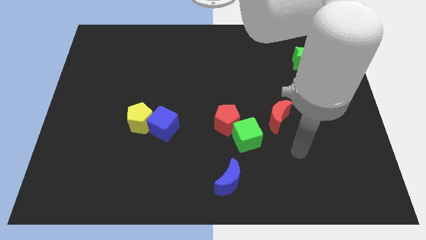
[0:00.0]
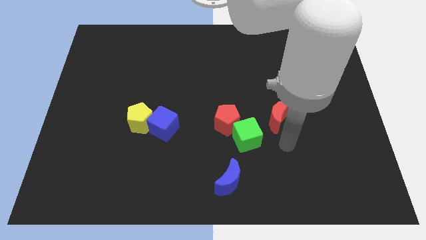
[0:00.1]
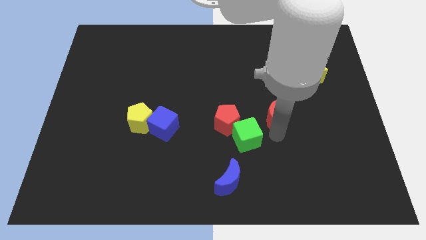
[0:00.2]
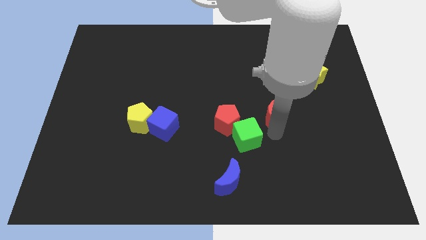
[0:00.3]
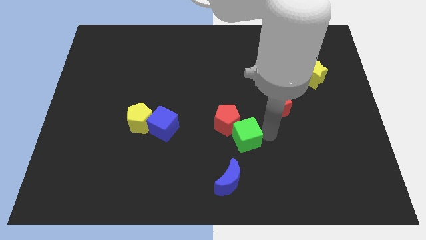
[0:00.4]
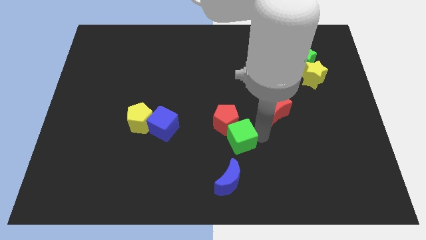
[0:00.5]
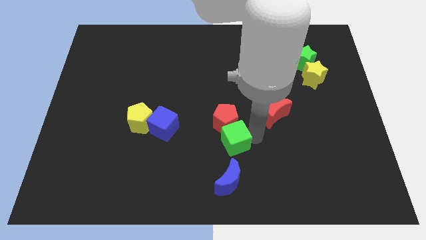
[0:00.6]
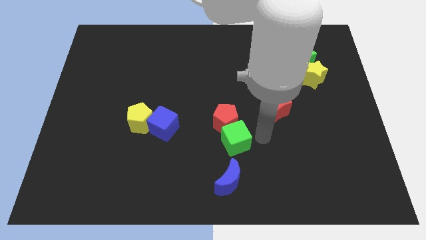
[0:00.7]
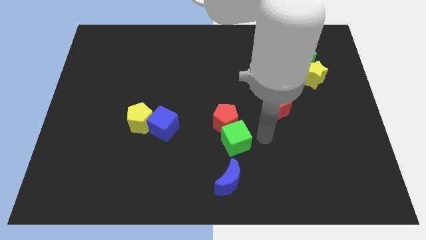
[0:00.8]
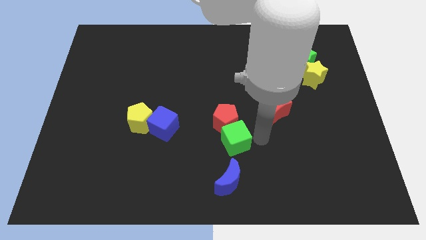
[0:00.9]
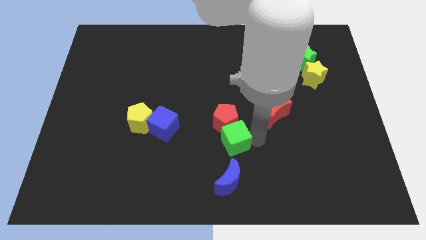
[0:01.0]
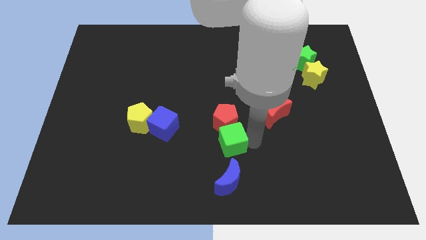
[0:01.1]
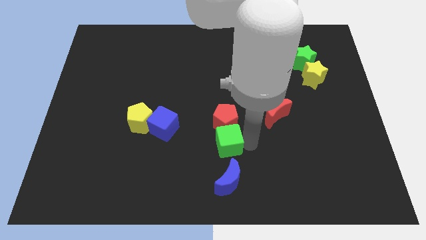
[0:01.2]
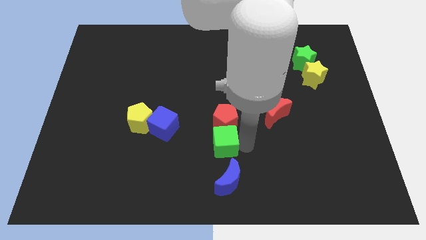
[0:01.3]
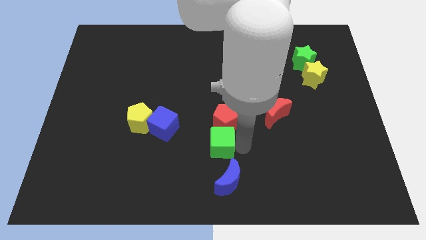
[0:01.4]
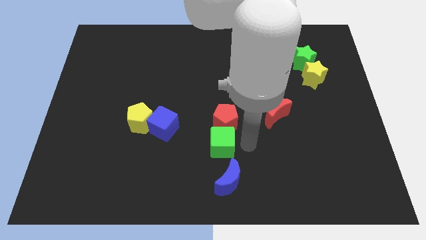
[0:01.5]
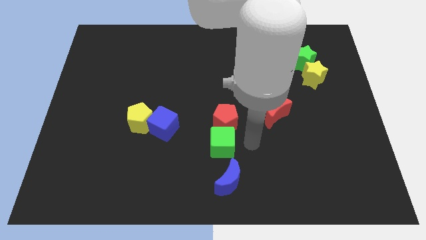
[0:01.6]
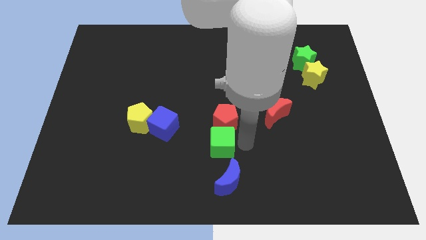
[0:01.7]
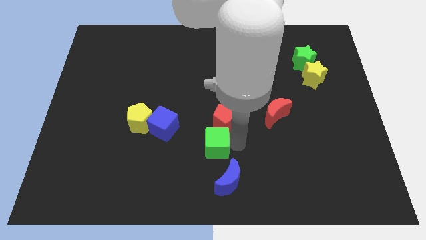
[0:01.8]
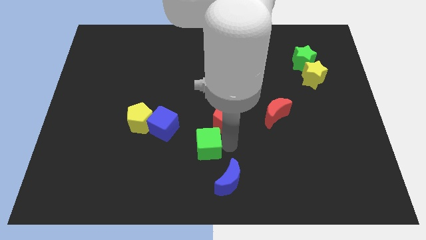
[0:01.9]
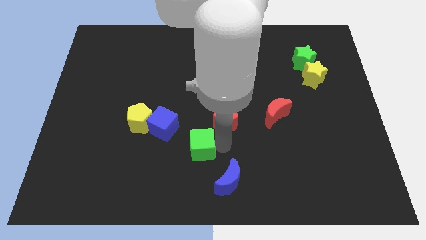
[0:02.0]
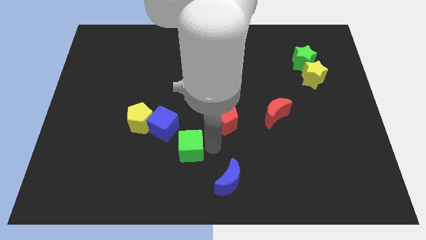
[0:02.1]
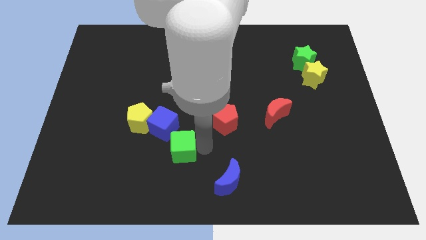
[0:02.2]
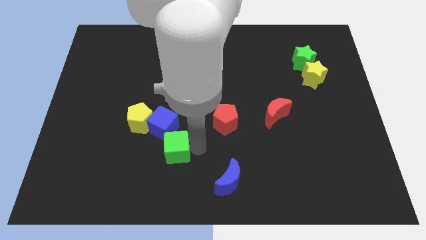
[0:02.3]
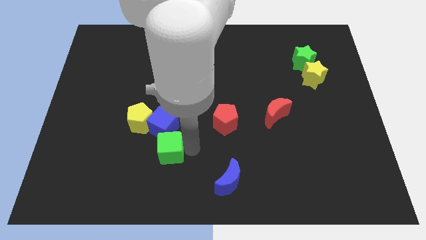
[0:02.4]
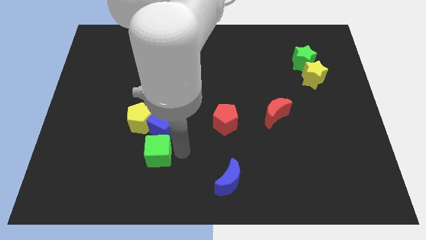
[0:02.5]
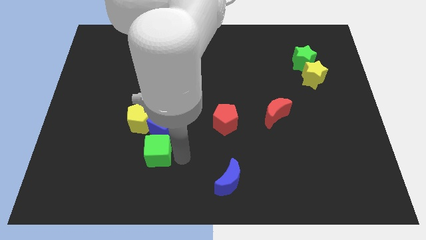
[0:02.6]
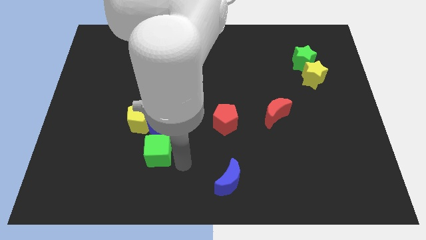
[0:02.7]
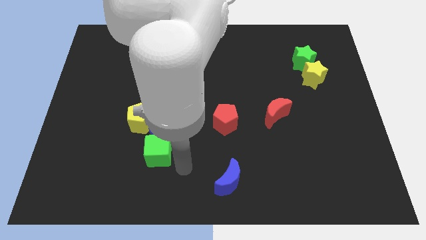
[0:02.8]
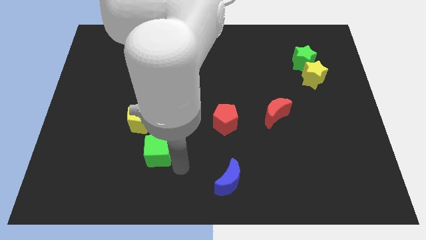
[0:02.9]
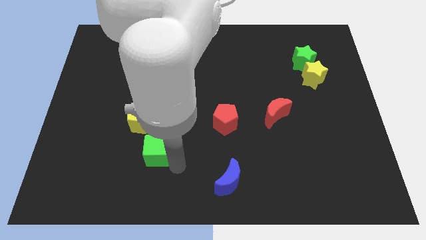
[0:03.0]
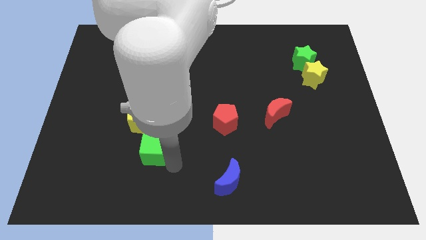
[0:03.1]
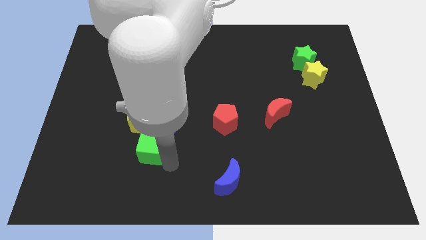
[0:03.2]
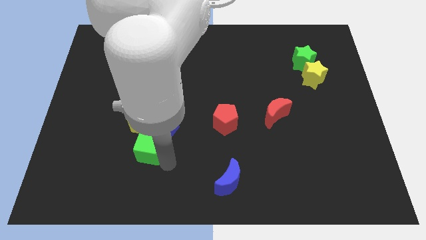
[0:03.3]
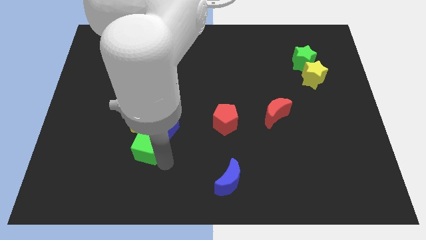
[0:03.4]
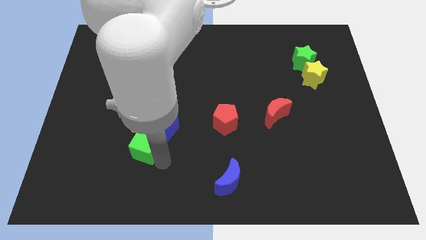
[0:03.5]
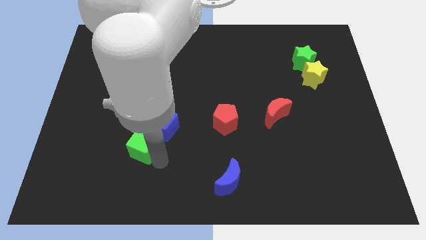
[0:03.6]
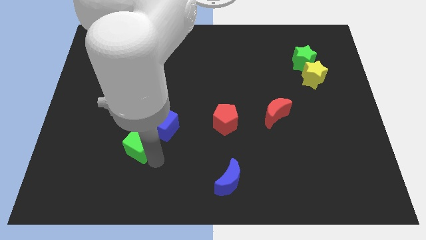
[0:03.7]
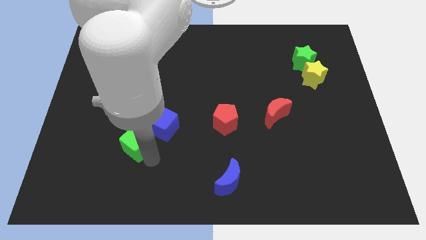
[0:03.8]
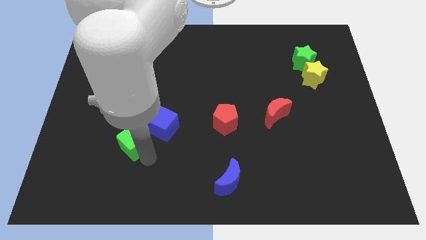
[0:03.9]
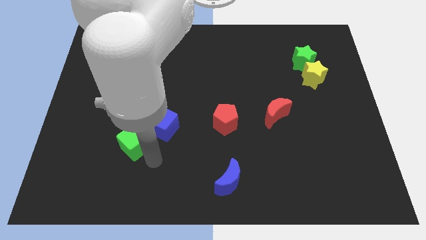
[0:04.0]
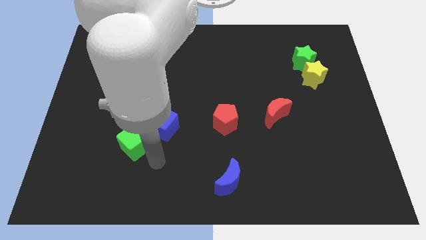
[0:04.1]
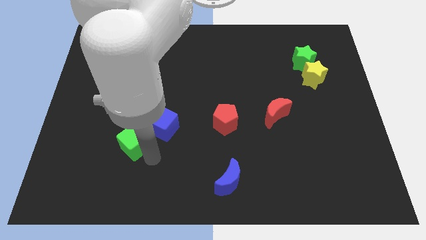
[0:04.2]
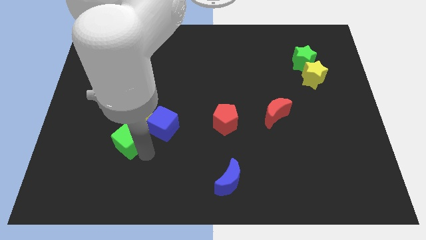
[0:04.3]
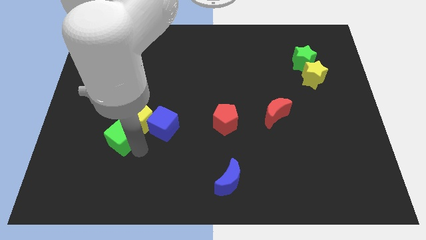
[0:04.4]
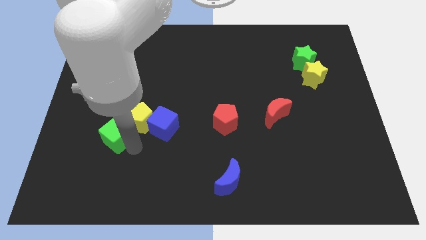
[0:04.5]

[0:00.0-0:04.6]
put the green cube left of the yellow pentagon

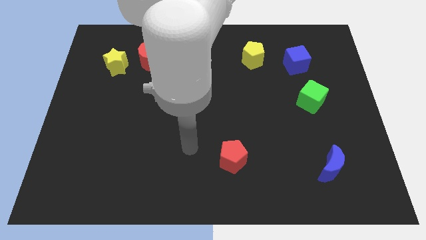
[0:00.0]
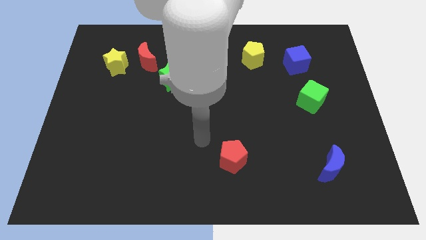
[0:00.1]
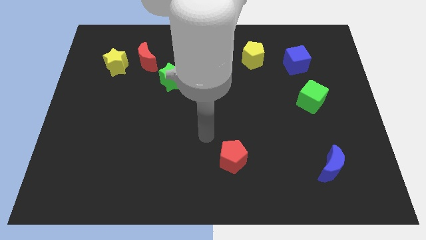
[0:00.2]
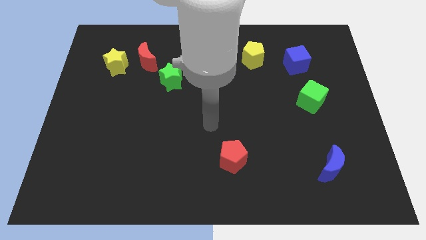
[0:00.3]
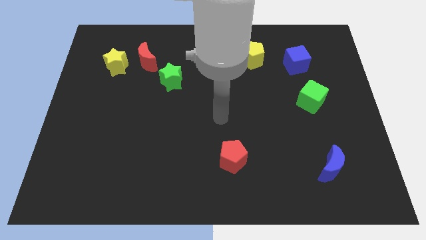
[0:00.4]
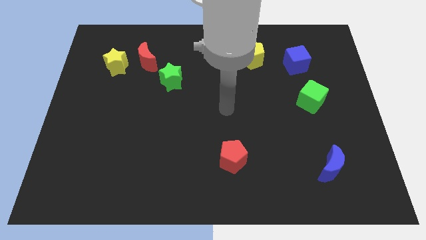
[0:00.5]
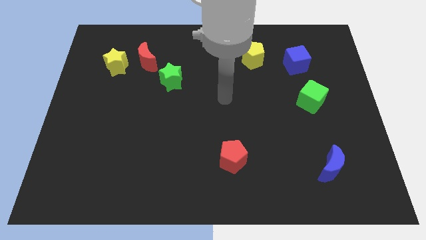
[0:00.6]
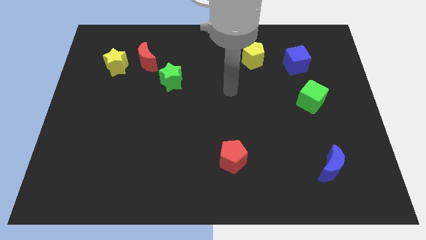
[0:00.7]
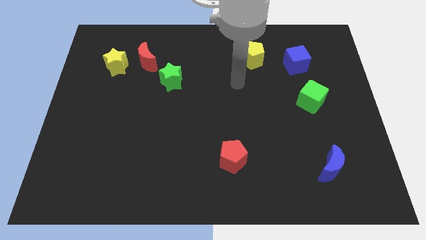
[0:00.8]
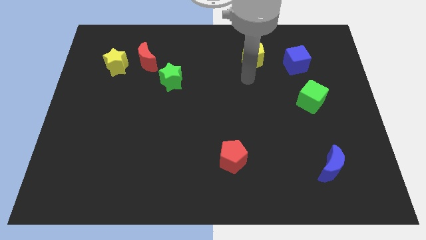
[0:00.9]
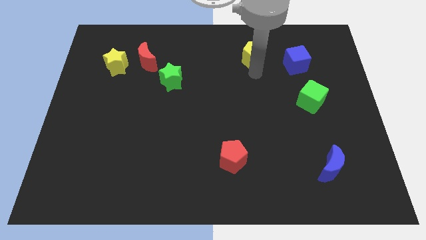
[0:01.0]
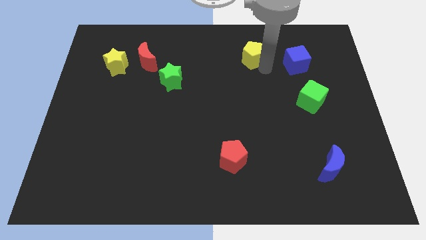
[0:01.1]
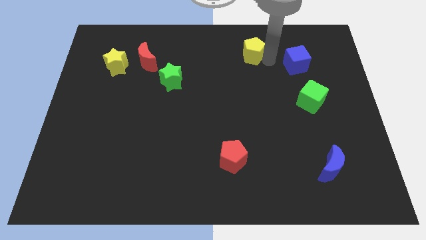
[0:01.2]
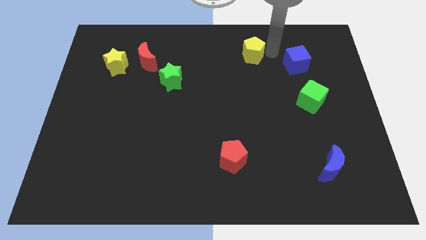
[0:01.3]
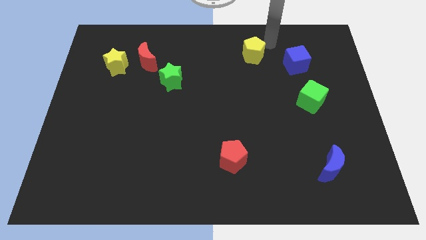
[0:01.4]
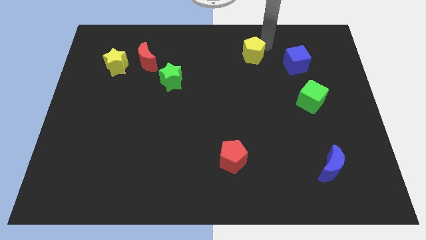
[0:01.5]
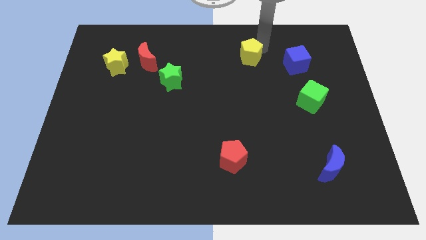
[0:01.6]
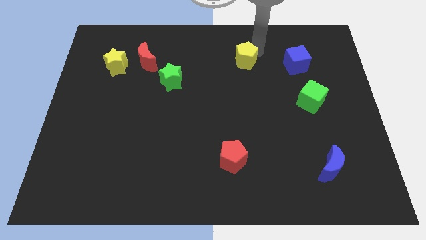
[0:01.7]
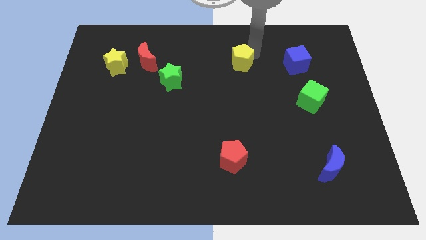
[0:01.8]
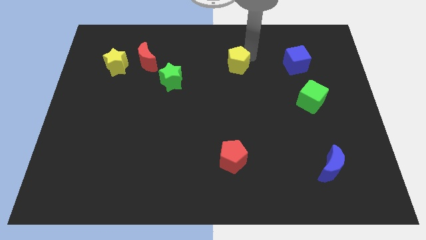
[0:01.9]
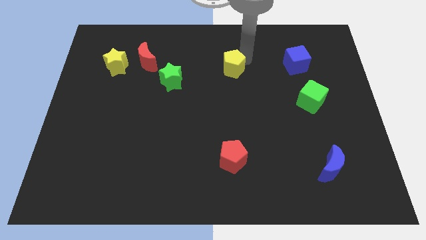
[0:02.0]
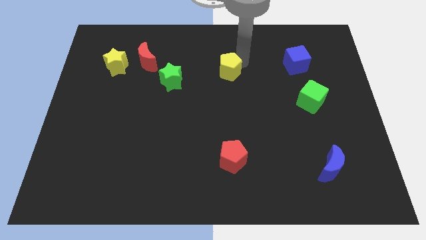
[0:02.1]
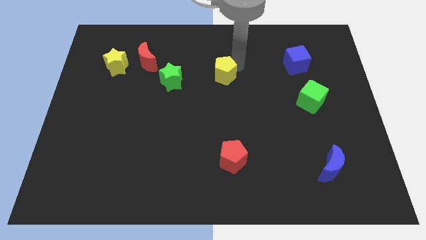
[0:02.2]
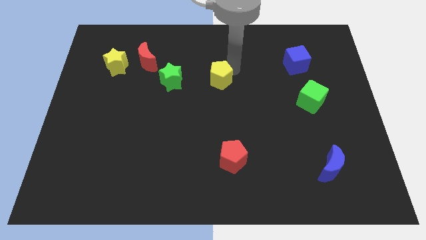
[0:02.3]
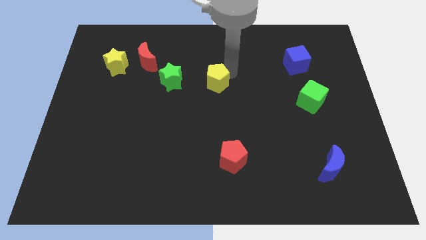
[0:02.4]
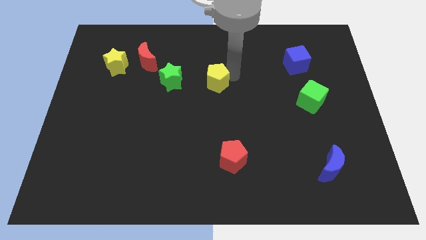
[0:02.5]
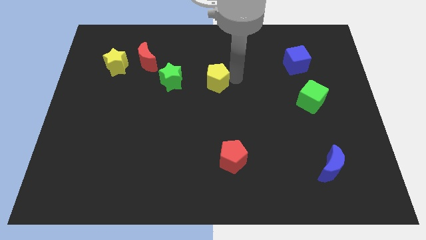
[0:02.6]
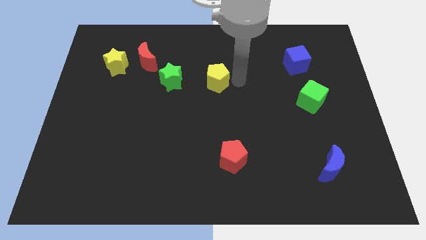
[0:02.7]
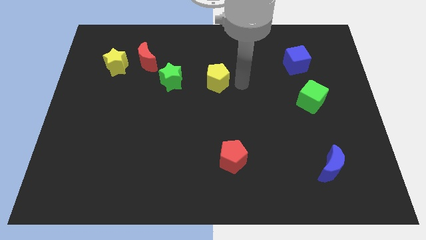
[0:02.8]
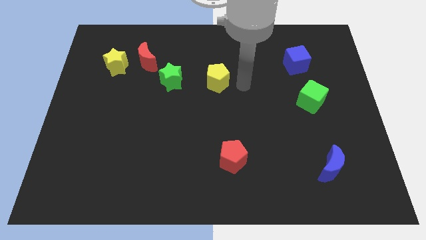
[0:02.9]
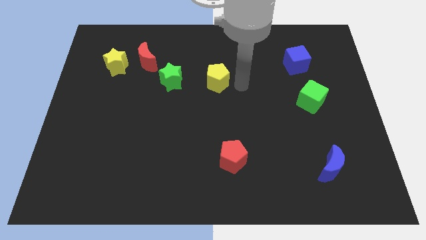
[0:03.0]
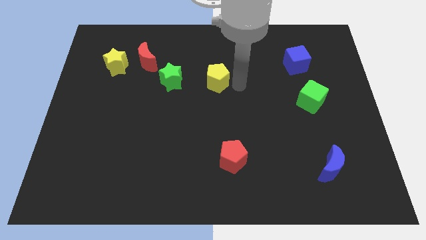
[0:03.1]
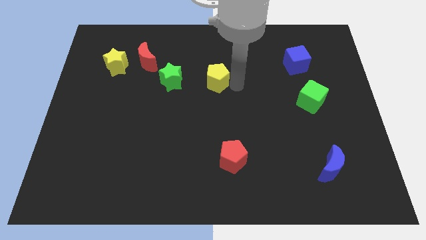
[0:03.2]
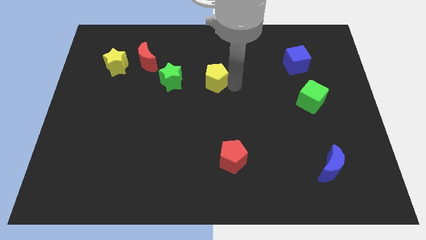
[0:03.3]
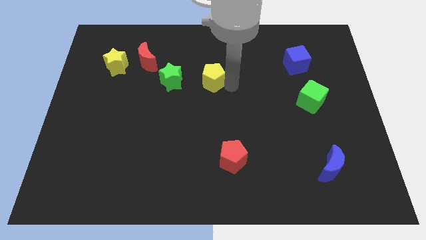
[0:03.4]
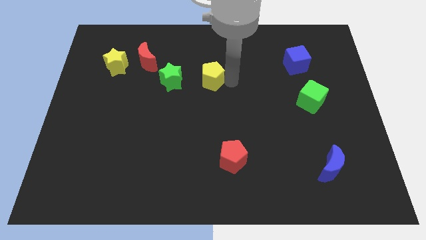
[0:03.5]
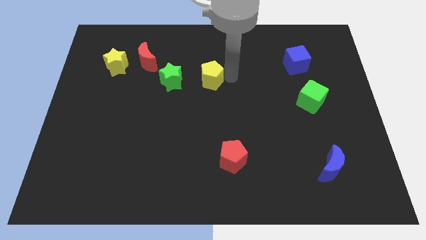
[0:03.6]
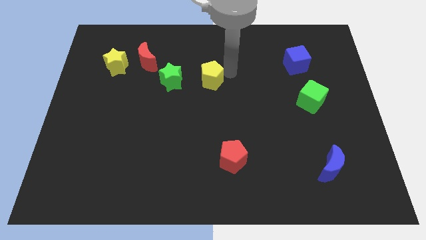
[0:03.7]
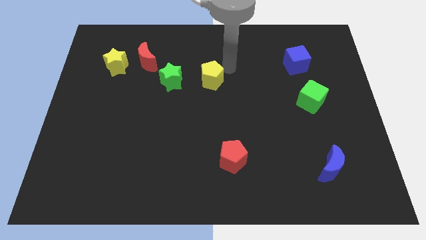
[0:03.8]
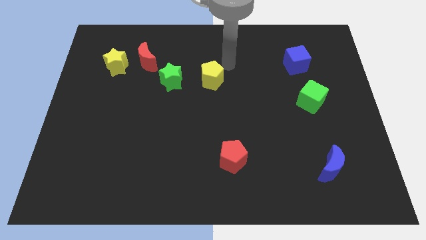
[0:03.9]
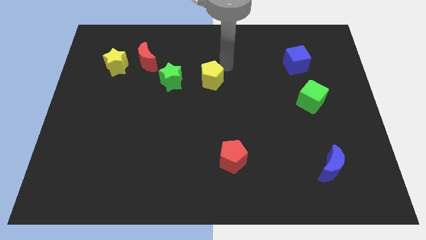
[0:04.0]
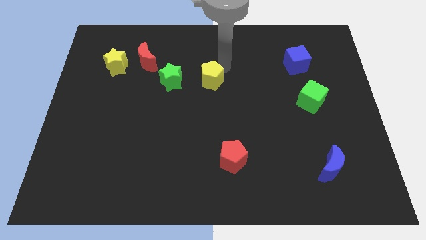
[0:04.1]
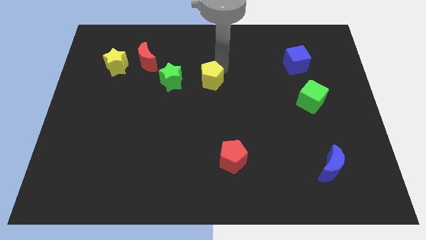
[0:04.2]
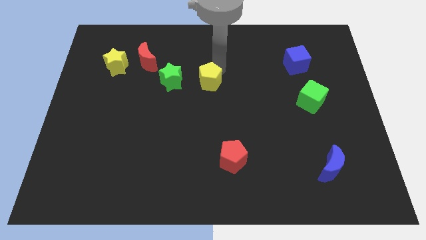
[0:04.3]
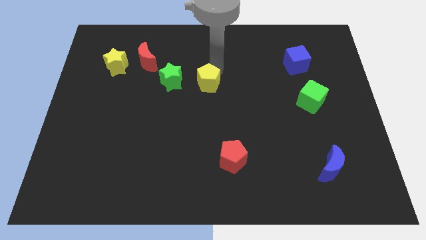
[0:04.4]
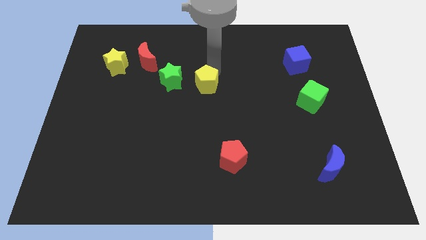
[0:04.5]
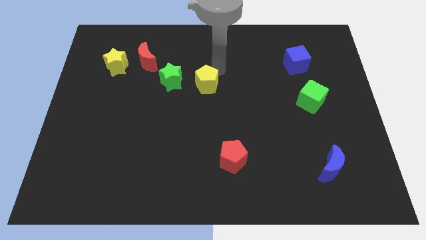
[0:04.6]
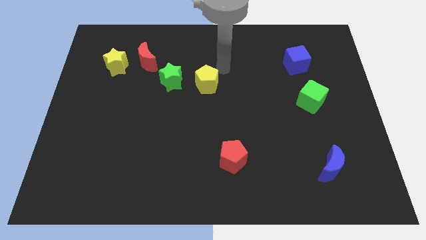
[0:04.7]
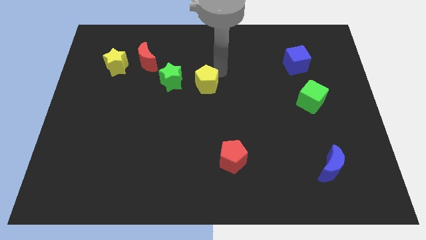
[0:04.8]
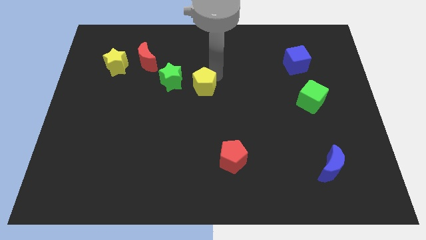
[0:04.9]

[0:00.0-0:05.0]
push the yellow pentagon diagonally down and to the right of the green star
